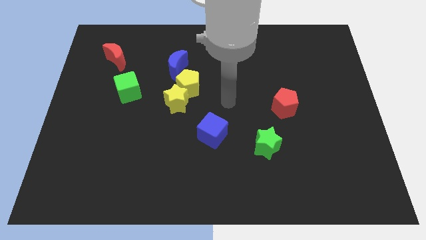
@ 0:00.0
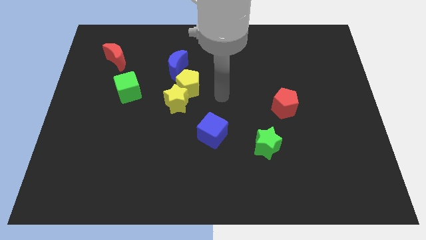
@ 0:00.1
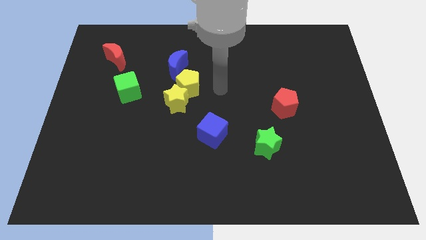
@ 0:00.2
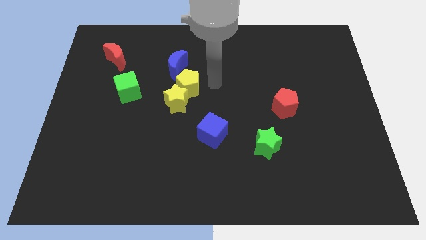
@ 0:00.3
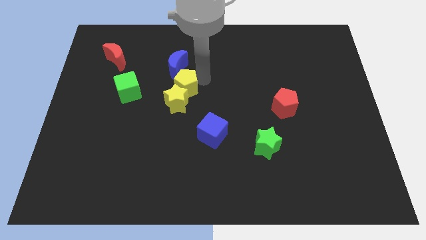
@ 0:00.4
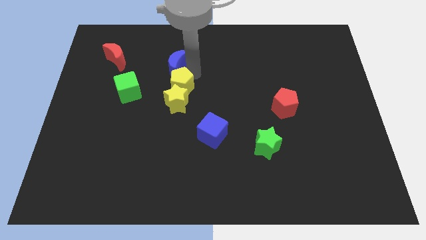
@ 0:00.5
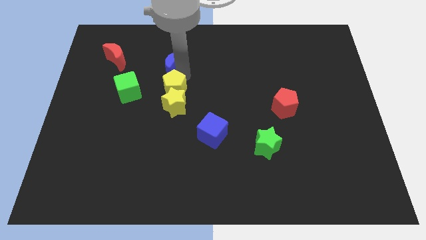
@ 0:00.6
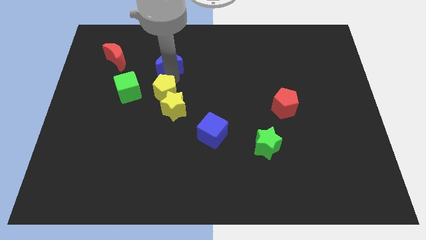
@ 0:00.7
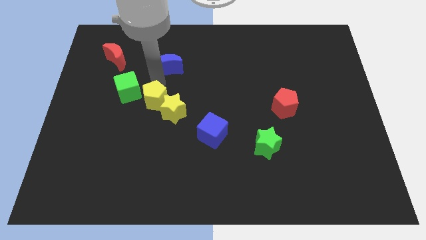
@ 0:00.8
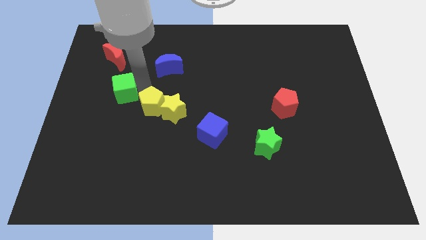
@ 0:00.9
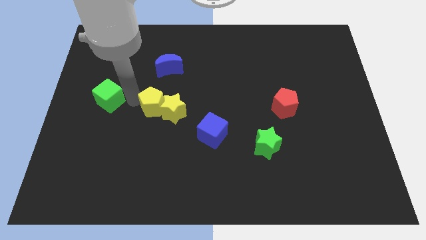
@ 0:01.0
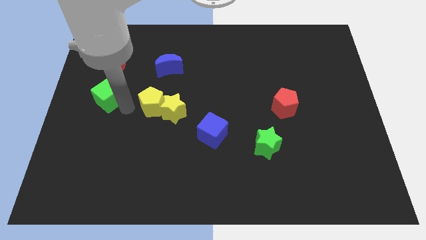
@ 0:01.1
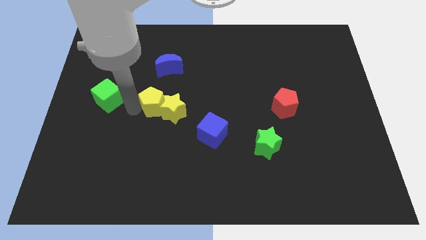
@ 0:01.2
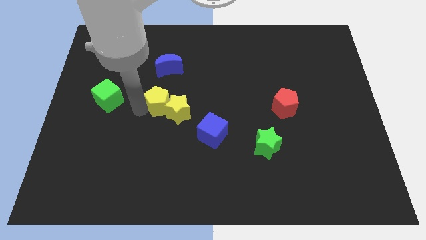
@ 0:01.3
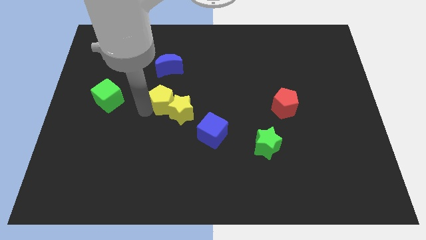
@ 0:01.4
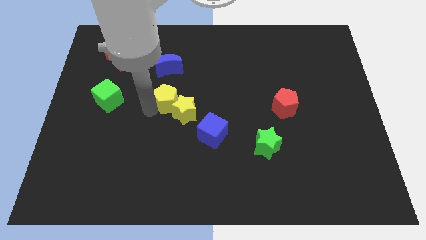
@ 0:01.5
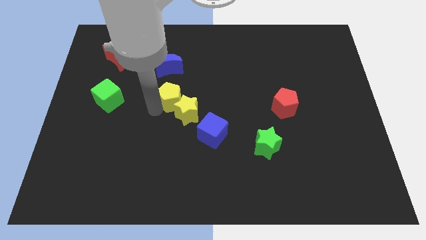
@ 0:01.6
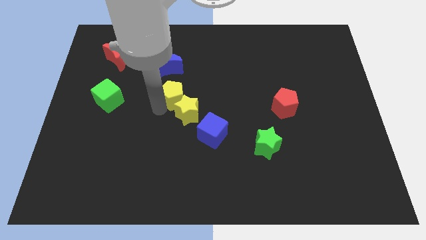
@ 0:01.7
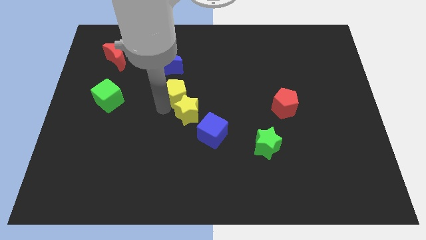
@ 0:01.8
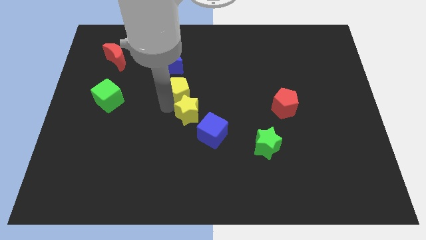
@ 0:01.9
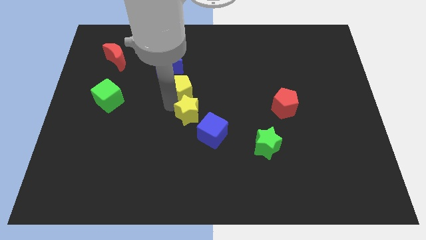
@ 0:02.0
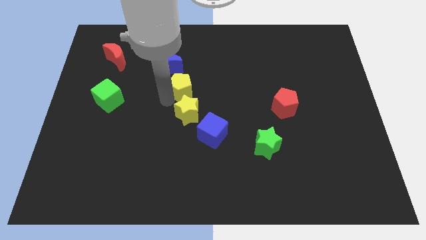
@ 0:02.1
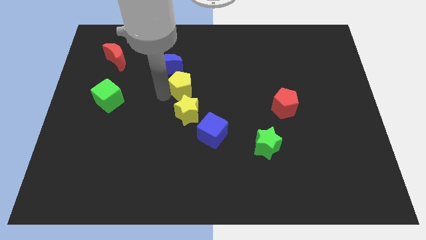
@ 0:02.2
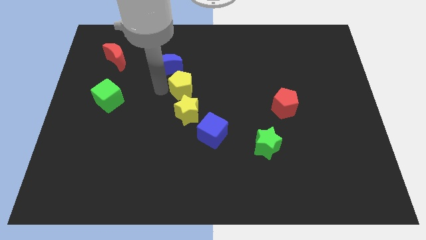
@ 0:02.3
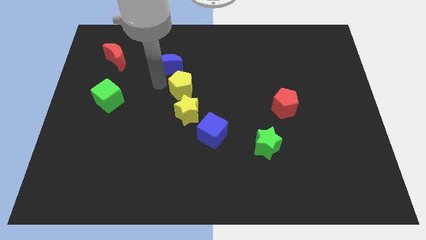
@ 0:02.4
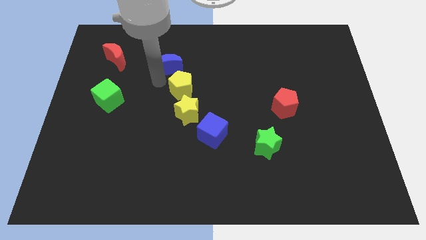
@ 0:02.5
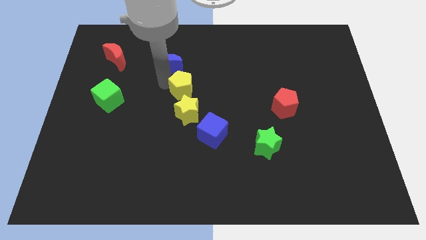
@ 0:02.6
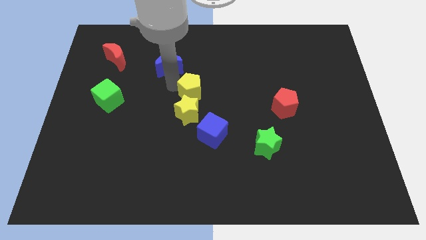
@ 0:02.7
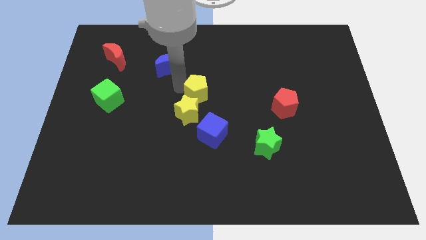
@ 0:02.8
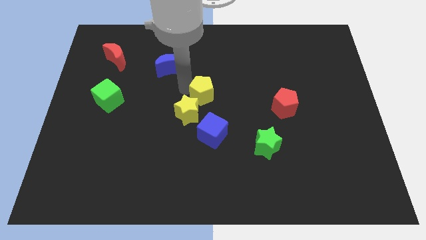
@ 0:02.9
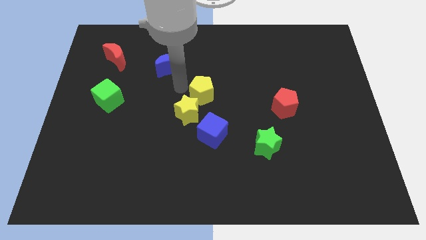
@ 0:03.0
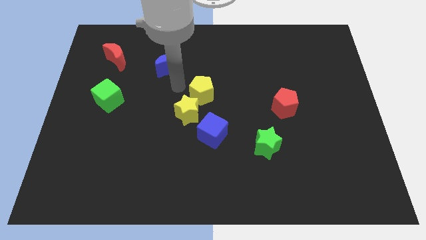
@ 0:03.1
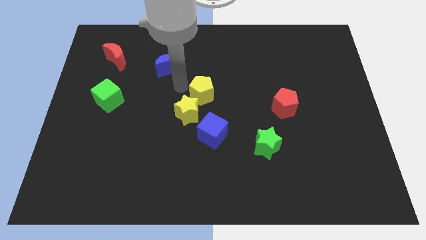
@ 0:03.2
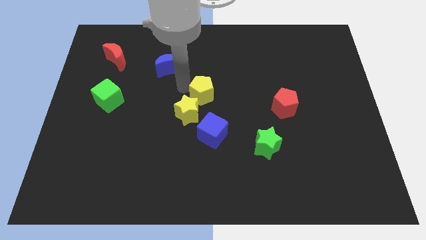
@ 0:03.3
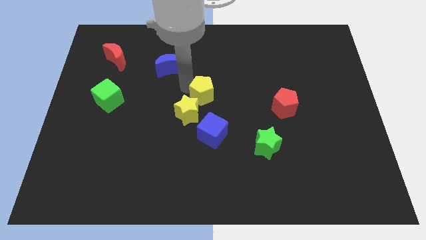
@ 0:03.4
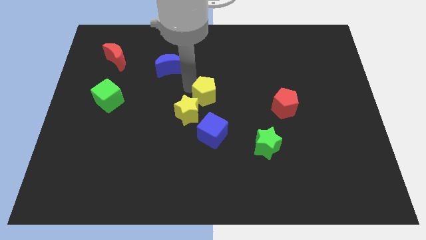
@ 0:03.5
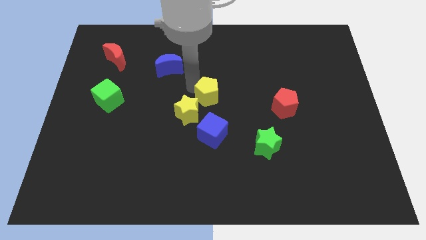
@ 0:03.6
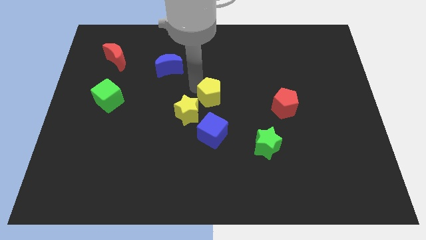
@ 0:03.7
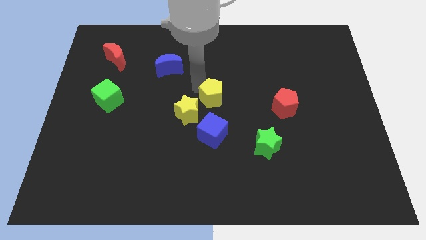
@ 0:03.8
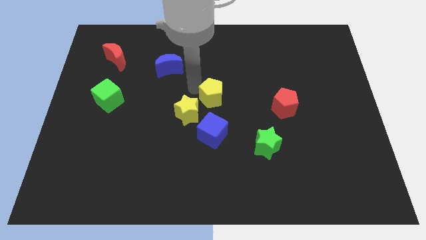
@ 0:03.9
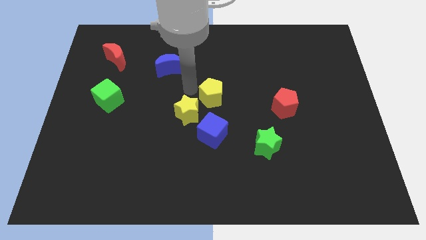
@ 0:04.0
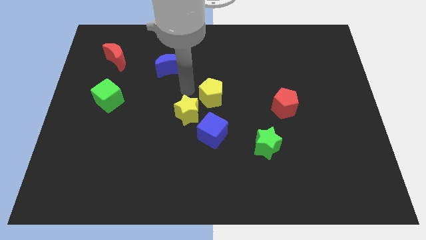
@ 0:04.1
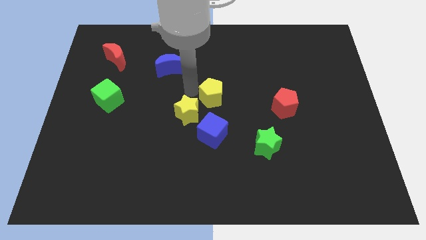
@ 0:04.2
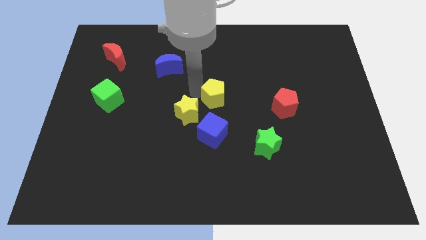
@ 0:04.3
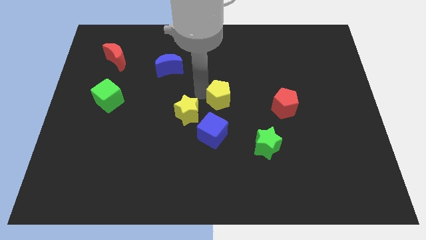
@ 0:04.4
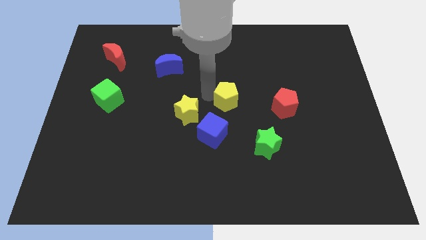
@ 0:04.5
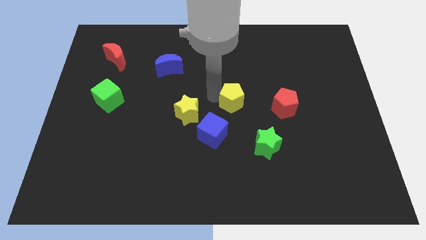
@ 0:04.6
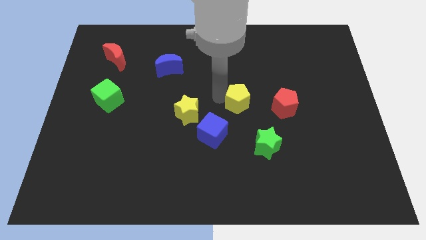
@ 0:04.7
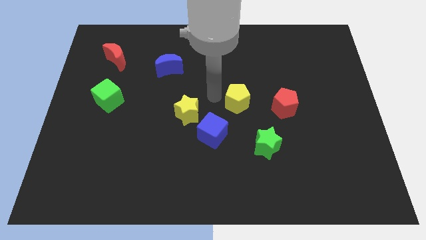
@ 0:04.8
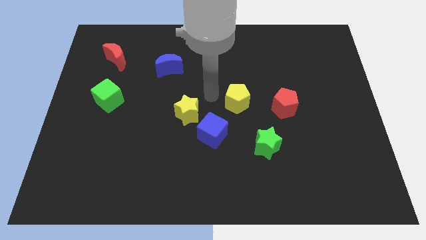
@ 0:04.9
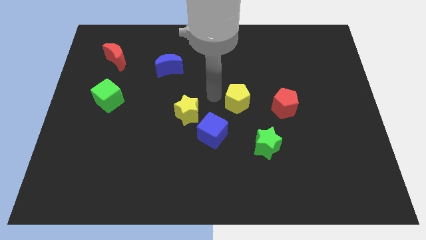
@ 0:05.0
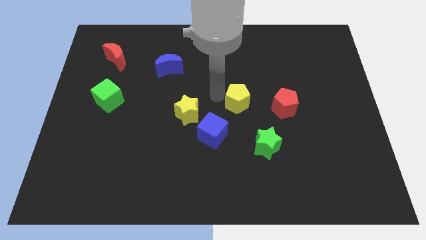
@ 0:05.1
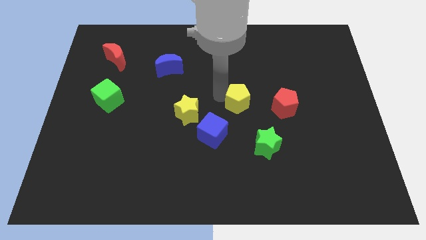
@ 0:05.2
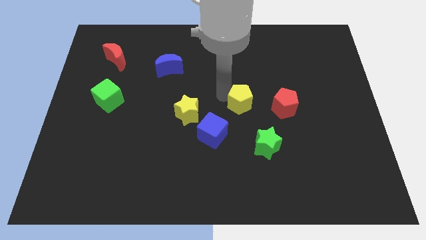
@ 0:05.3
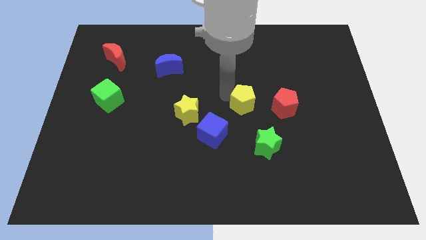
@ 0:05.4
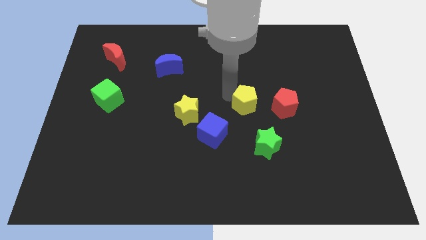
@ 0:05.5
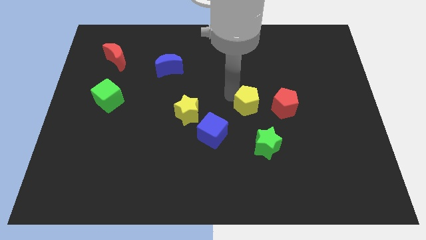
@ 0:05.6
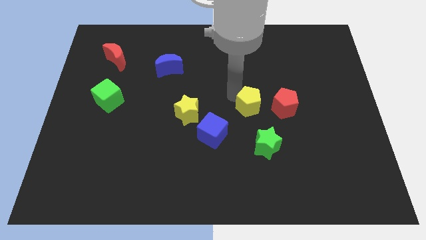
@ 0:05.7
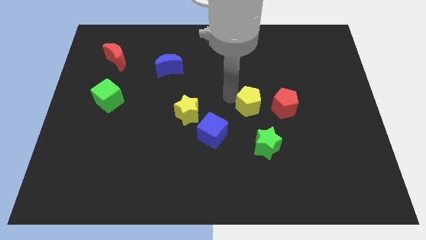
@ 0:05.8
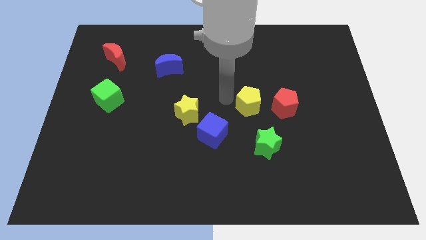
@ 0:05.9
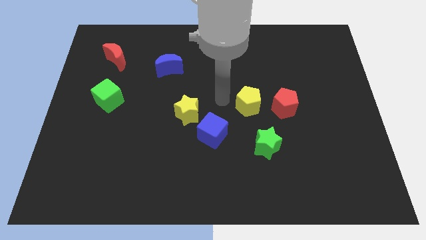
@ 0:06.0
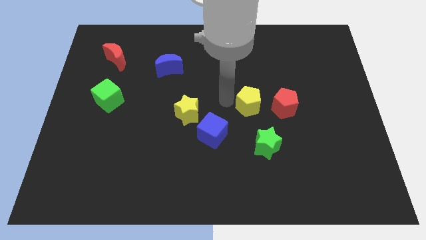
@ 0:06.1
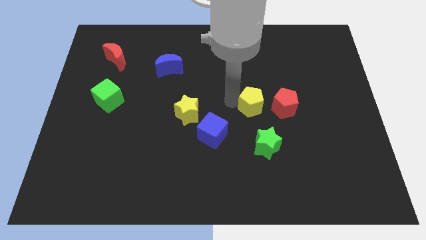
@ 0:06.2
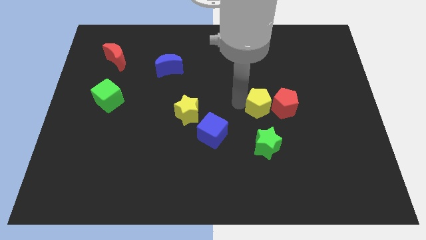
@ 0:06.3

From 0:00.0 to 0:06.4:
push the yellow pentagon close to the red pentagon

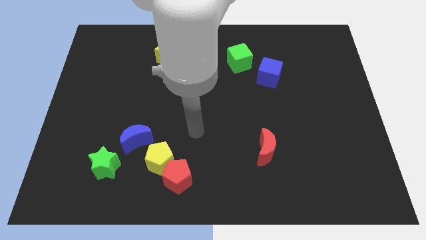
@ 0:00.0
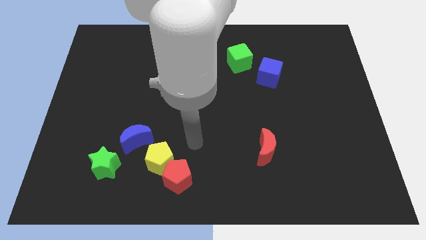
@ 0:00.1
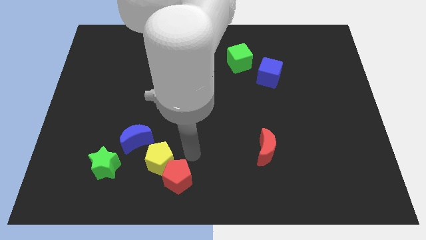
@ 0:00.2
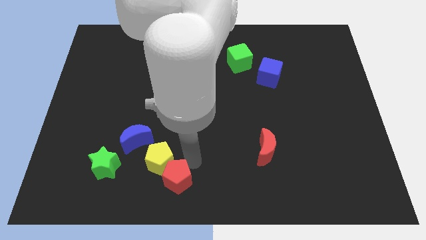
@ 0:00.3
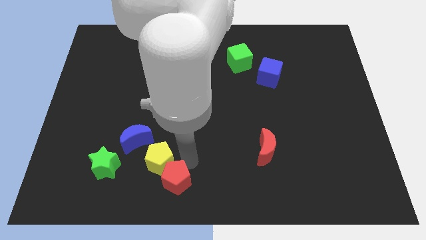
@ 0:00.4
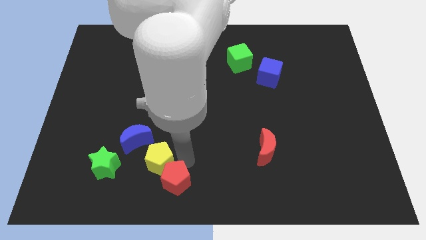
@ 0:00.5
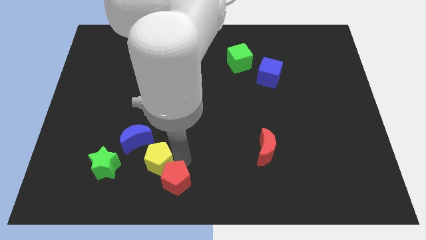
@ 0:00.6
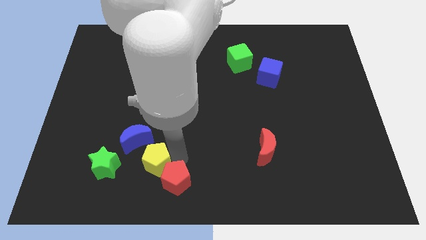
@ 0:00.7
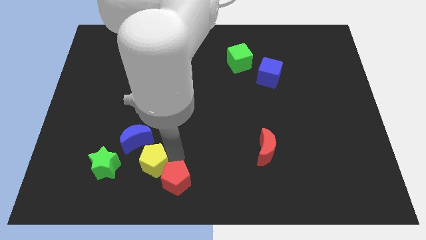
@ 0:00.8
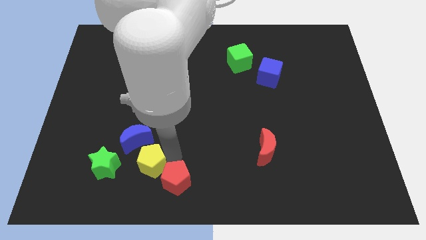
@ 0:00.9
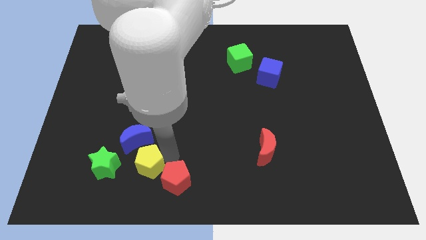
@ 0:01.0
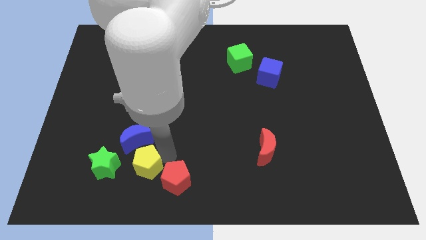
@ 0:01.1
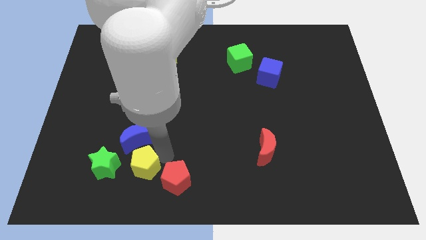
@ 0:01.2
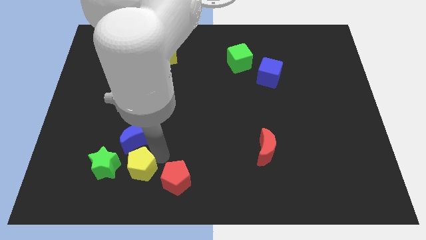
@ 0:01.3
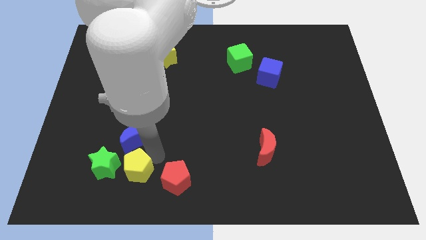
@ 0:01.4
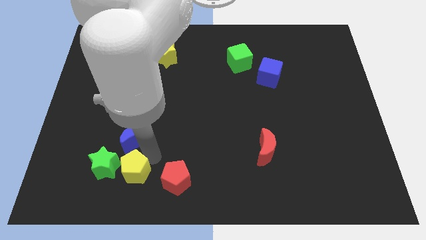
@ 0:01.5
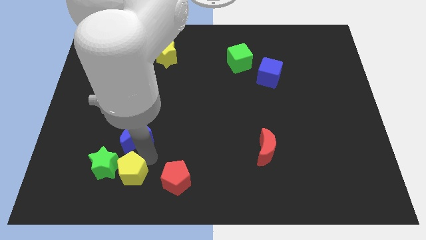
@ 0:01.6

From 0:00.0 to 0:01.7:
push the yellow pentagon next to the green star
